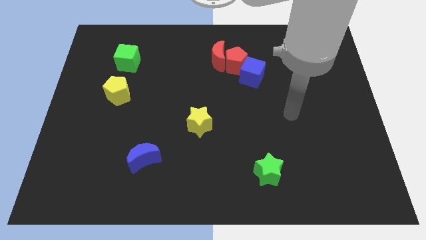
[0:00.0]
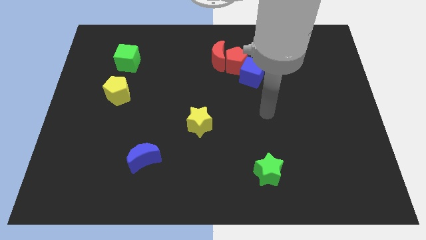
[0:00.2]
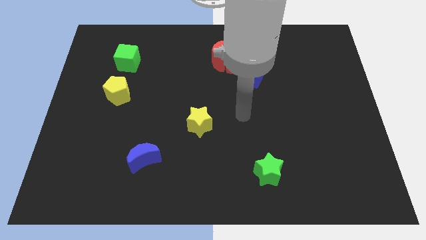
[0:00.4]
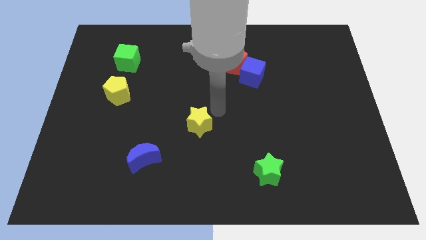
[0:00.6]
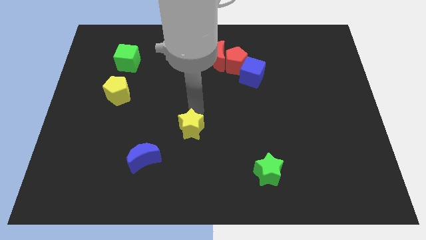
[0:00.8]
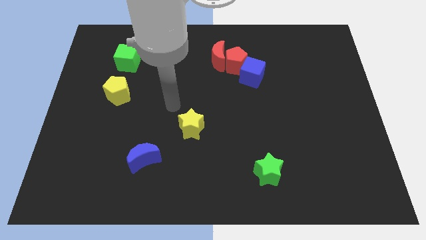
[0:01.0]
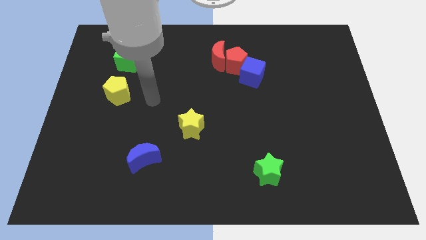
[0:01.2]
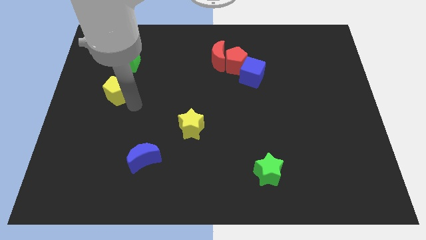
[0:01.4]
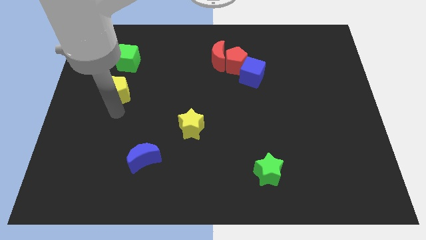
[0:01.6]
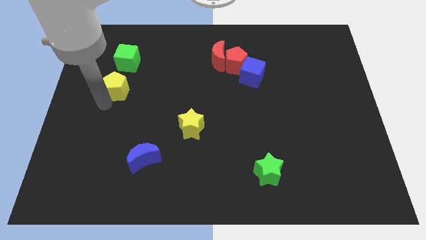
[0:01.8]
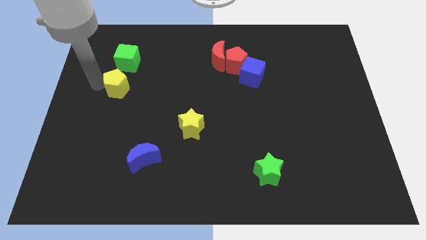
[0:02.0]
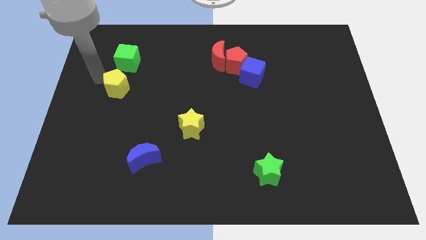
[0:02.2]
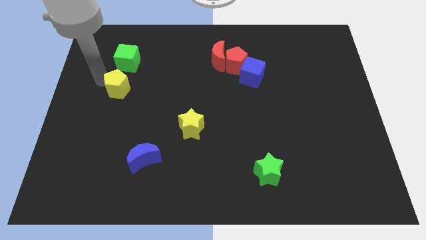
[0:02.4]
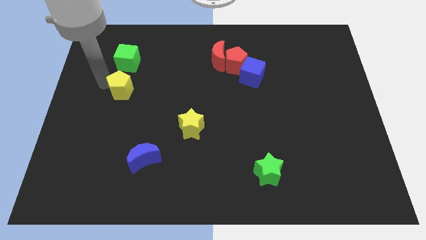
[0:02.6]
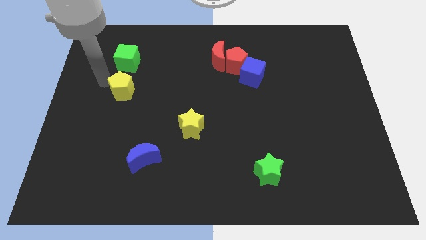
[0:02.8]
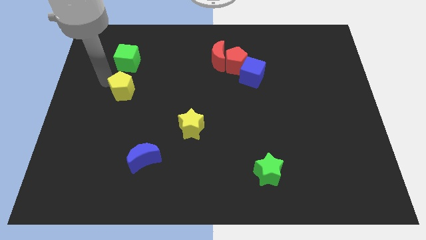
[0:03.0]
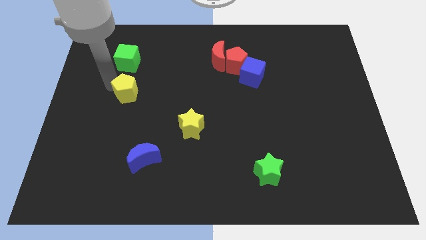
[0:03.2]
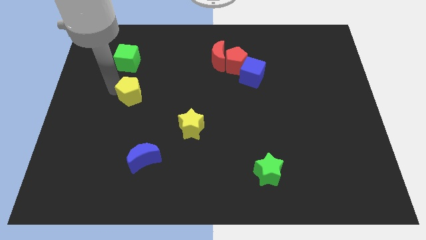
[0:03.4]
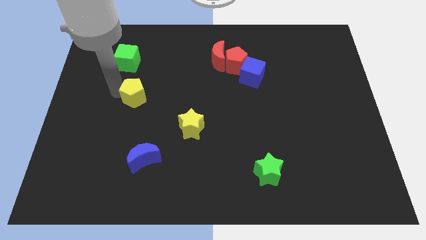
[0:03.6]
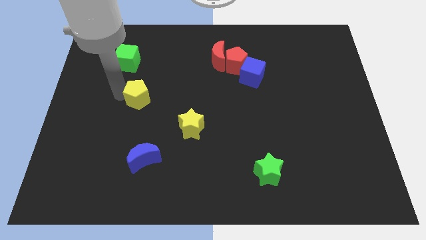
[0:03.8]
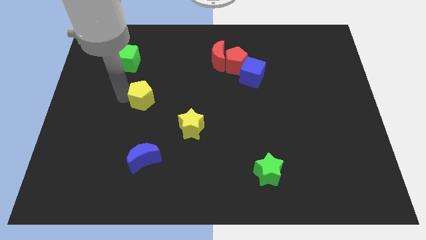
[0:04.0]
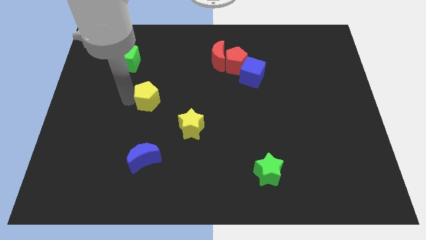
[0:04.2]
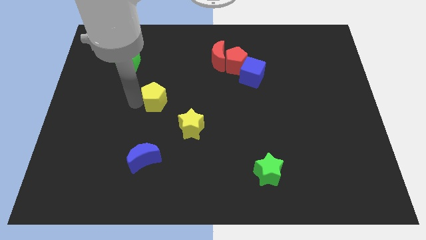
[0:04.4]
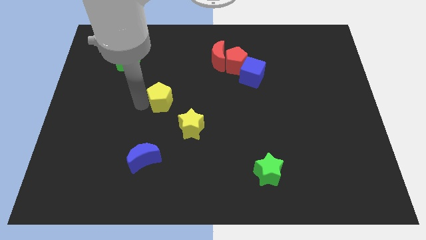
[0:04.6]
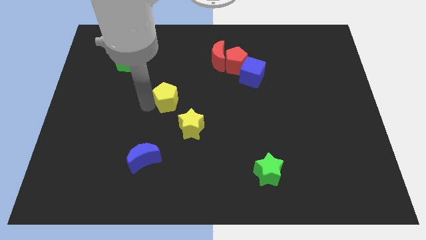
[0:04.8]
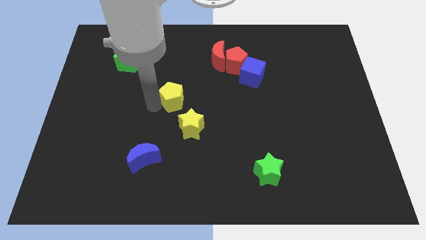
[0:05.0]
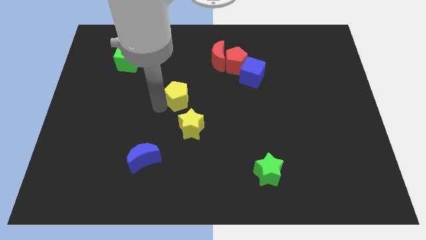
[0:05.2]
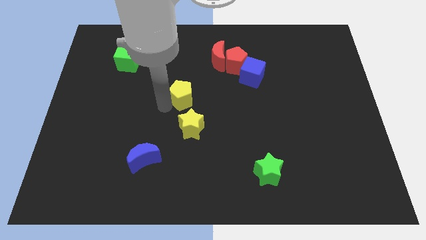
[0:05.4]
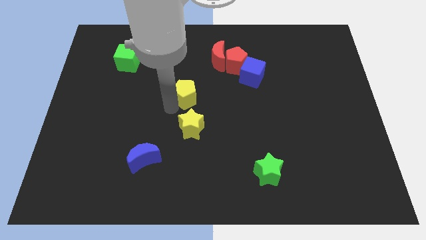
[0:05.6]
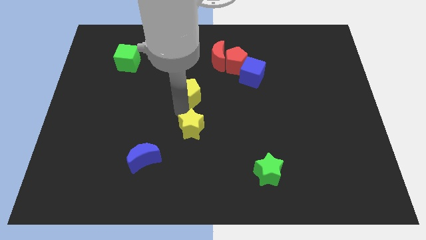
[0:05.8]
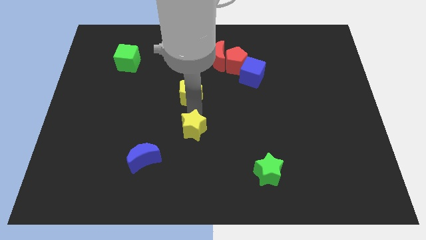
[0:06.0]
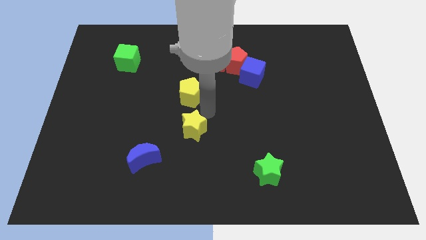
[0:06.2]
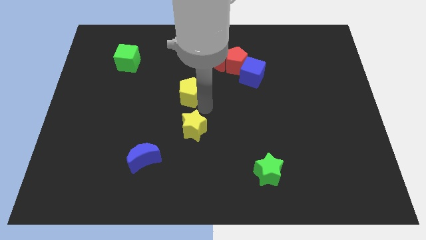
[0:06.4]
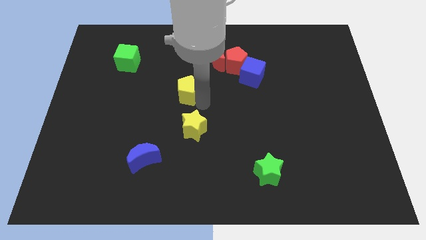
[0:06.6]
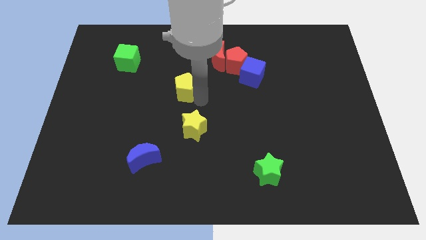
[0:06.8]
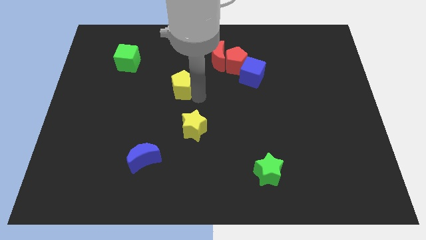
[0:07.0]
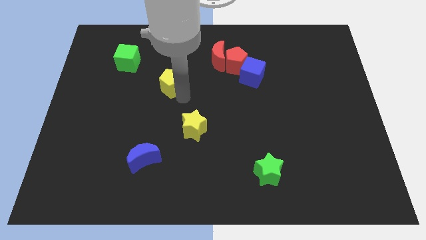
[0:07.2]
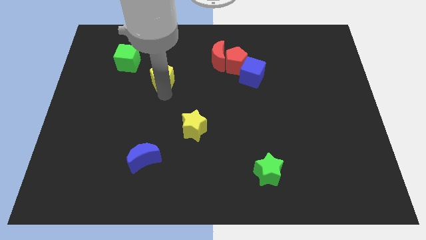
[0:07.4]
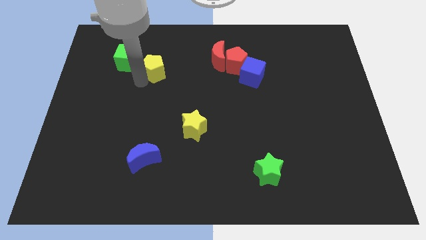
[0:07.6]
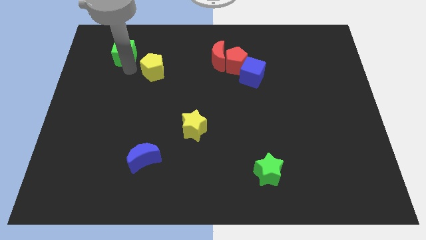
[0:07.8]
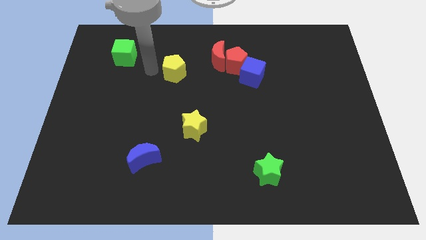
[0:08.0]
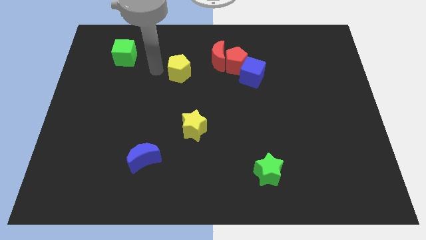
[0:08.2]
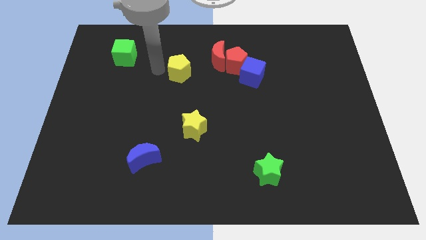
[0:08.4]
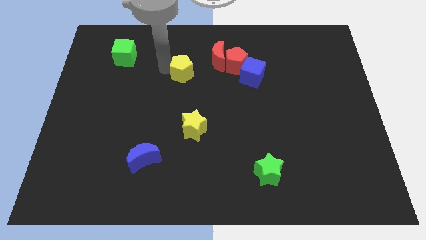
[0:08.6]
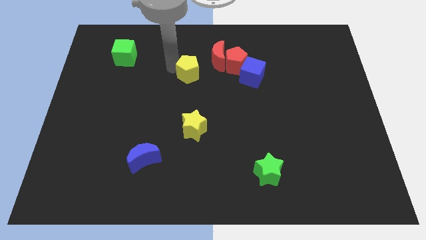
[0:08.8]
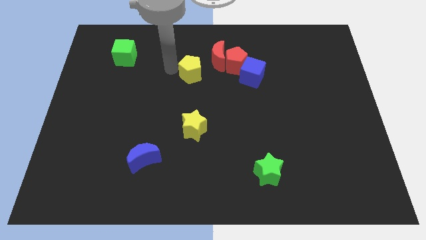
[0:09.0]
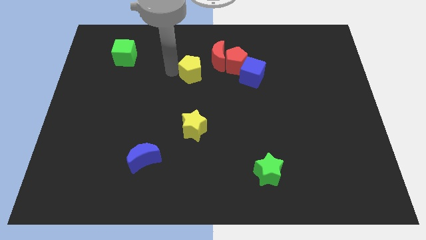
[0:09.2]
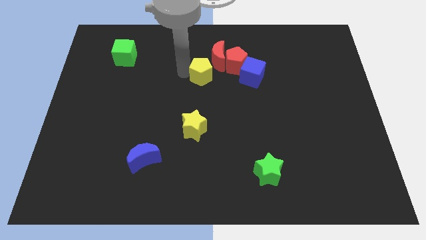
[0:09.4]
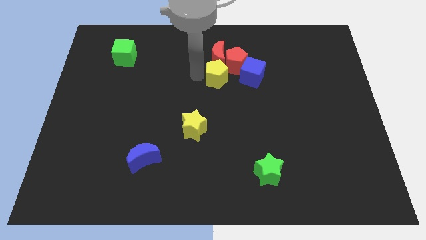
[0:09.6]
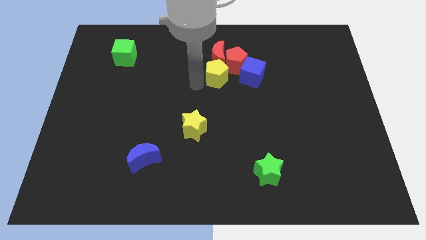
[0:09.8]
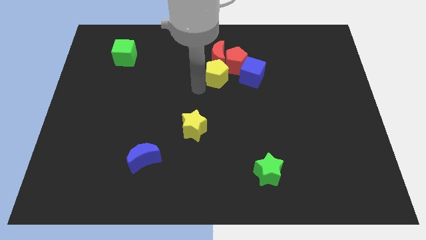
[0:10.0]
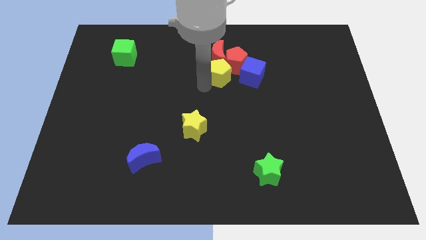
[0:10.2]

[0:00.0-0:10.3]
push the yellow pentagon to the red pentagon

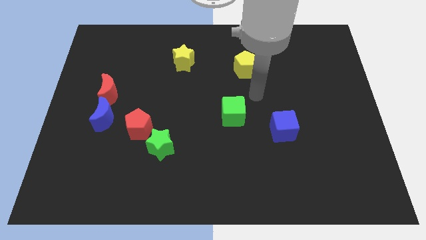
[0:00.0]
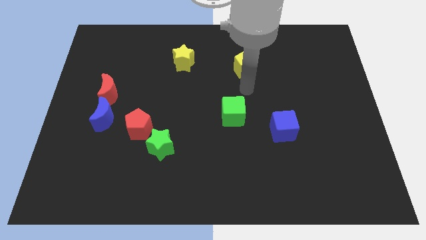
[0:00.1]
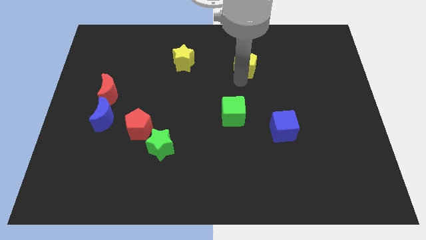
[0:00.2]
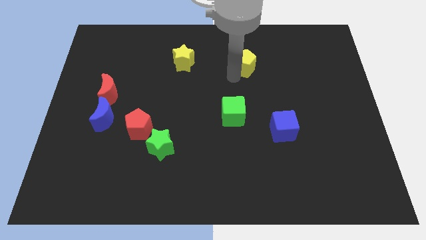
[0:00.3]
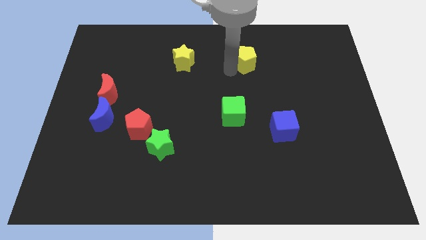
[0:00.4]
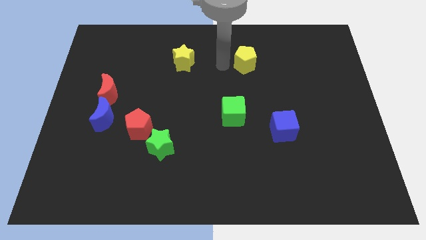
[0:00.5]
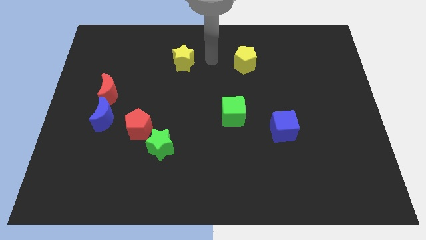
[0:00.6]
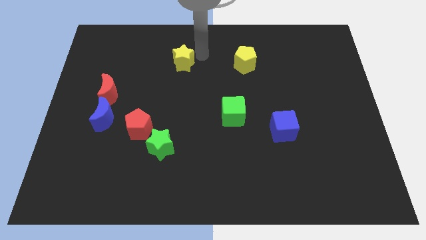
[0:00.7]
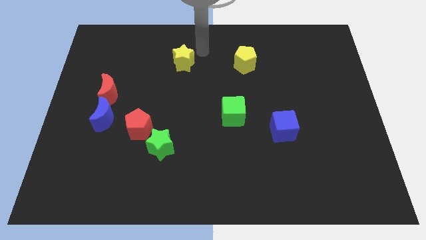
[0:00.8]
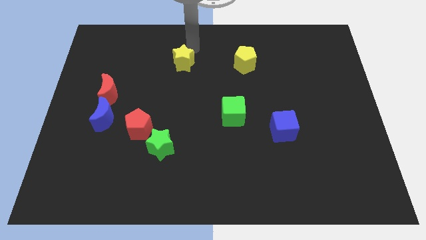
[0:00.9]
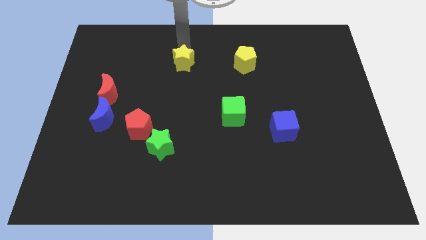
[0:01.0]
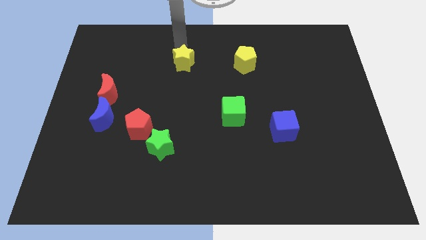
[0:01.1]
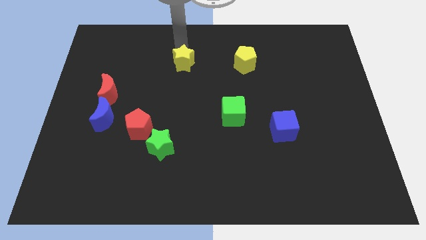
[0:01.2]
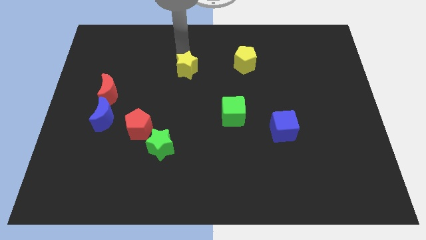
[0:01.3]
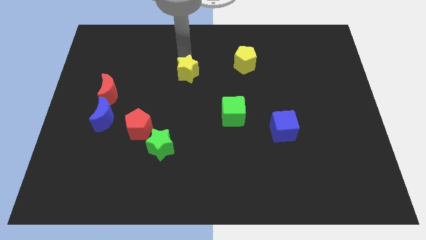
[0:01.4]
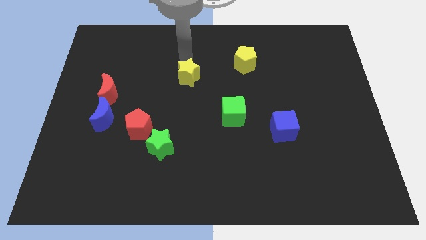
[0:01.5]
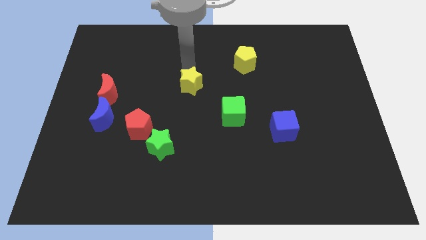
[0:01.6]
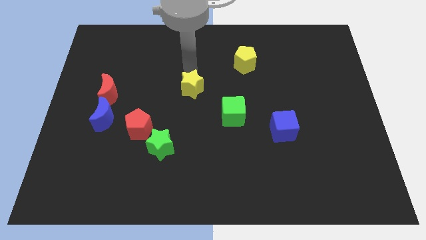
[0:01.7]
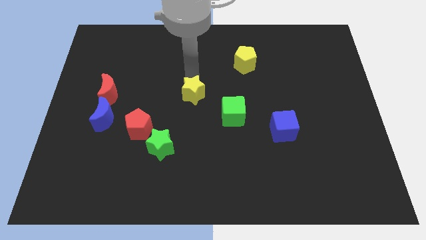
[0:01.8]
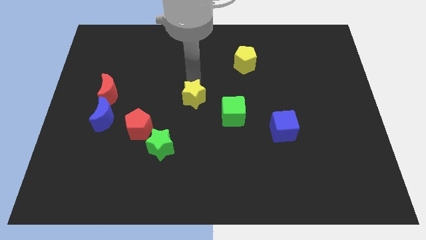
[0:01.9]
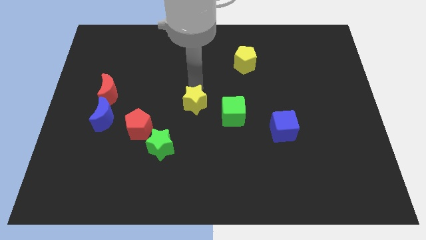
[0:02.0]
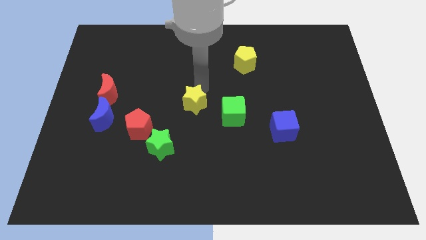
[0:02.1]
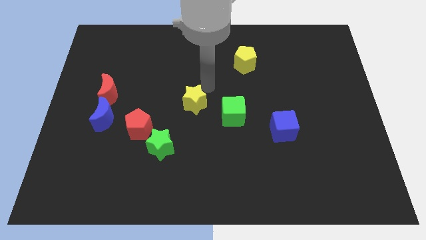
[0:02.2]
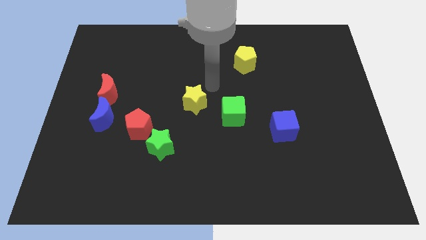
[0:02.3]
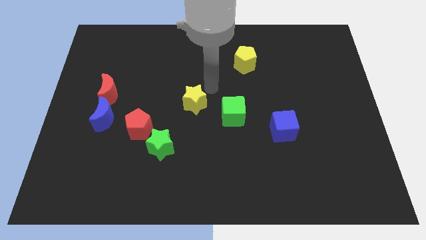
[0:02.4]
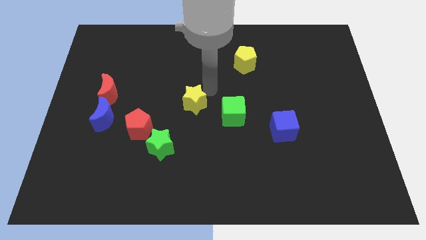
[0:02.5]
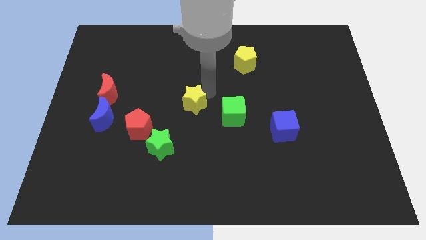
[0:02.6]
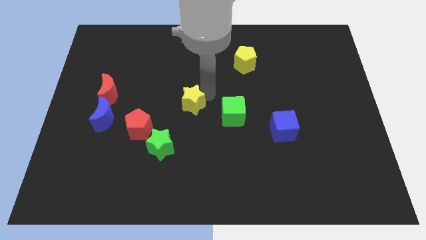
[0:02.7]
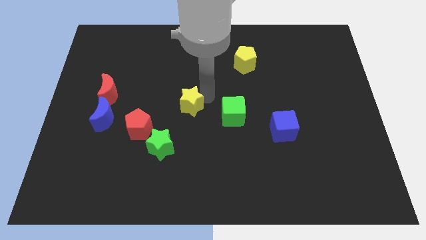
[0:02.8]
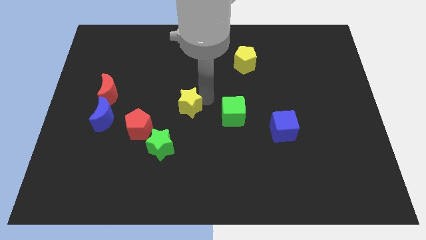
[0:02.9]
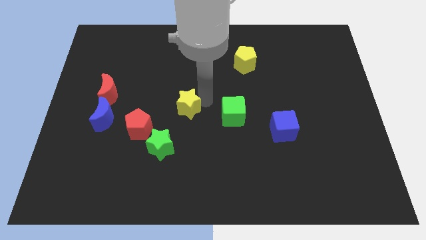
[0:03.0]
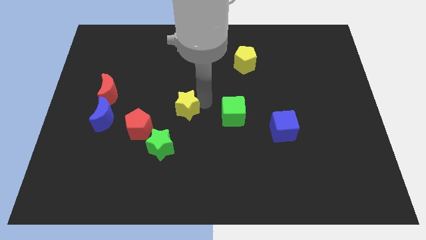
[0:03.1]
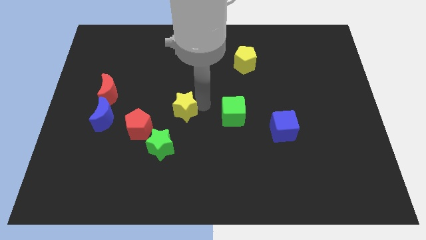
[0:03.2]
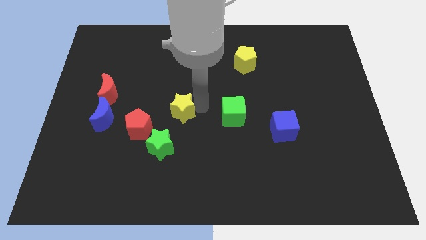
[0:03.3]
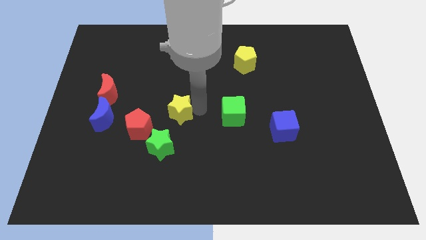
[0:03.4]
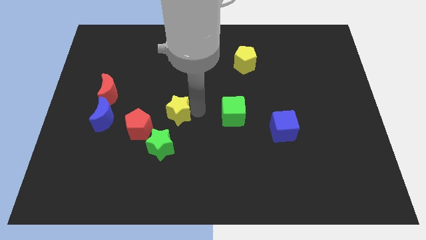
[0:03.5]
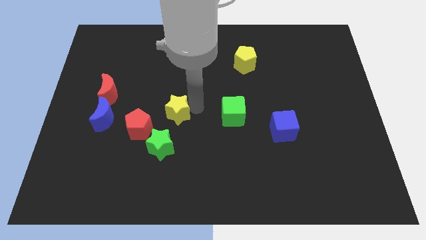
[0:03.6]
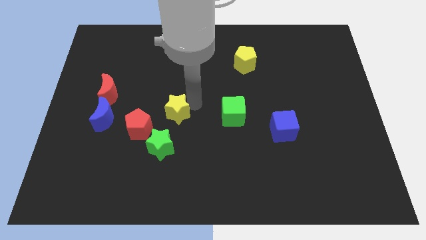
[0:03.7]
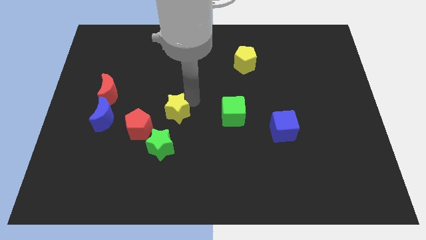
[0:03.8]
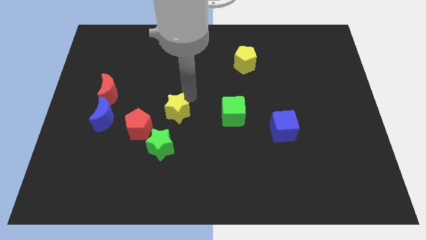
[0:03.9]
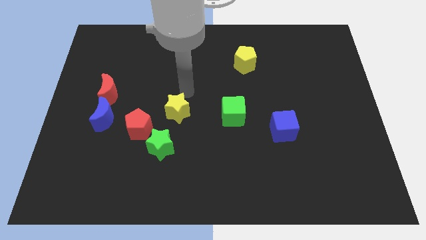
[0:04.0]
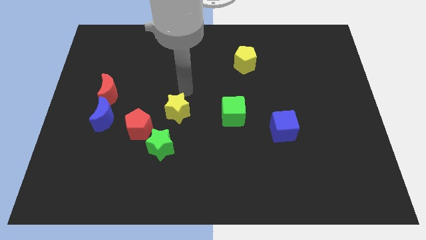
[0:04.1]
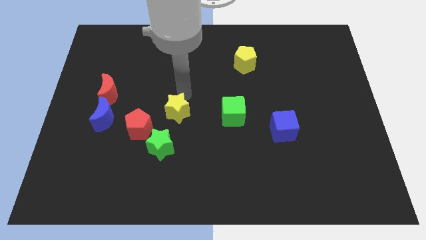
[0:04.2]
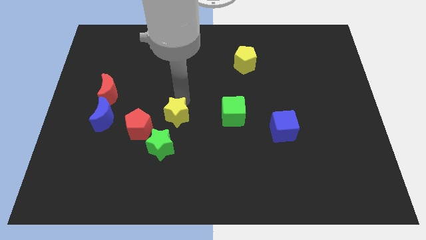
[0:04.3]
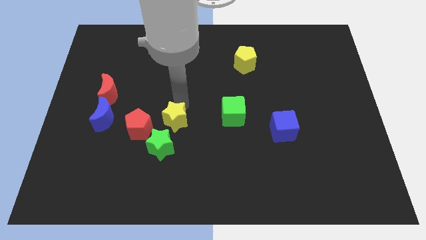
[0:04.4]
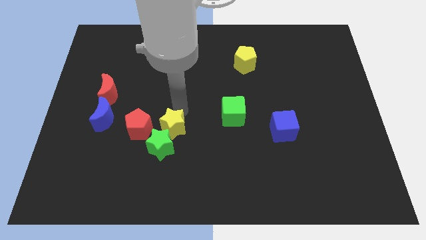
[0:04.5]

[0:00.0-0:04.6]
put the yellow star to the green star
